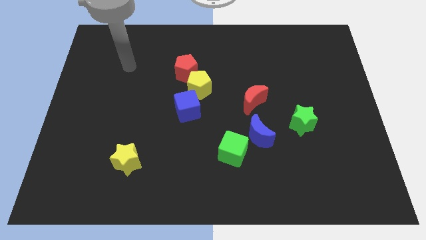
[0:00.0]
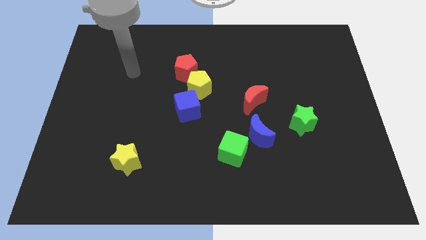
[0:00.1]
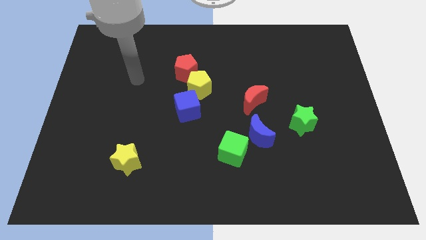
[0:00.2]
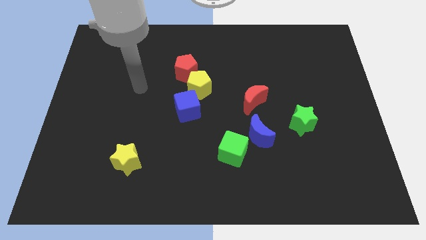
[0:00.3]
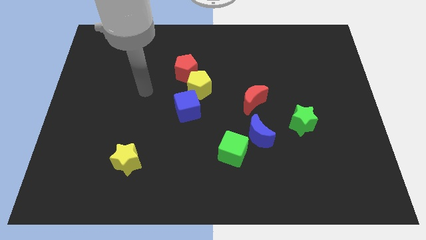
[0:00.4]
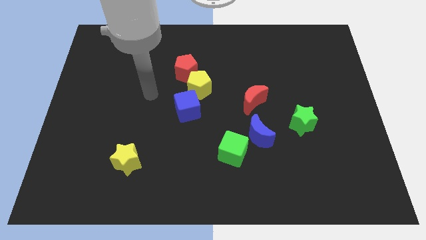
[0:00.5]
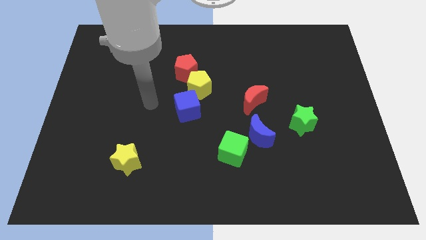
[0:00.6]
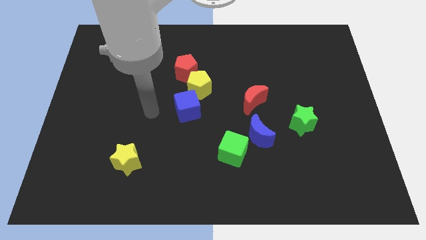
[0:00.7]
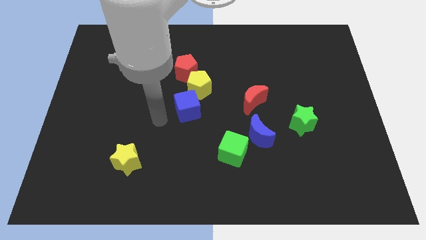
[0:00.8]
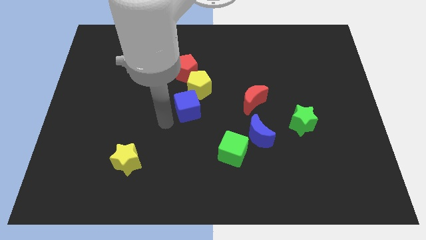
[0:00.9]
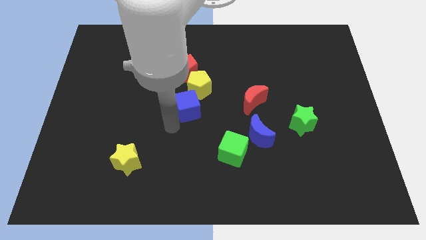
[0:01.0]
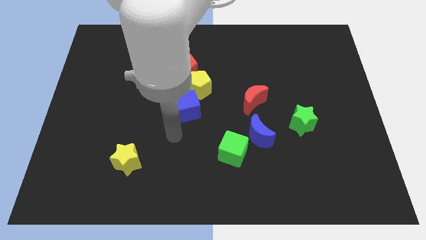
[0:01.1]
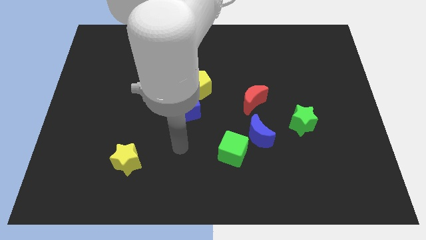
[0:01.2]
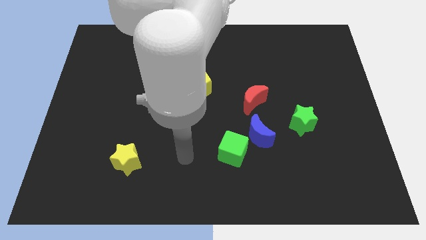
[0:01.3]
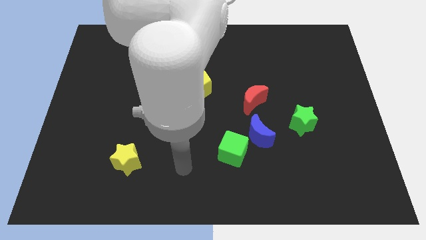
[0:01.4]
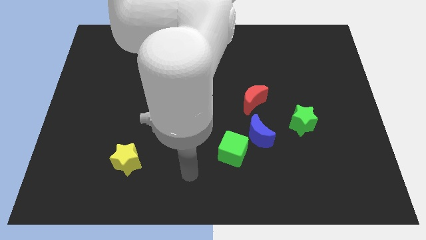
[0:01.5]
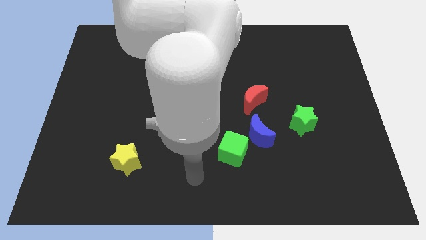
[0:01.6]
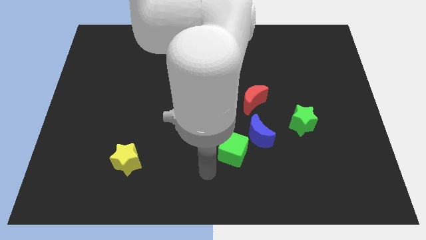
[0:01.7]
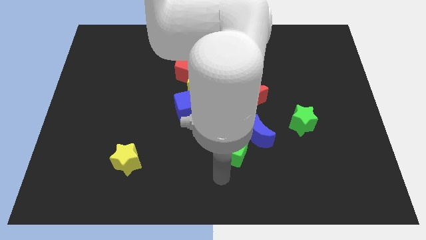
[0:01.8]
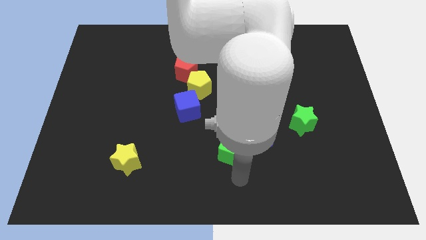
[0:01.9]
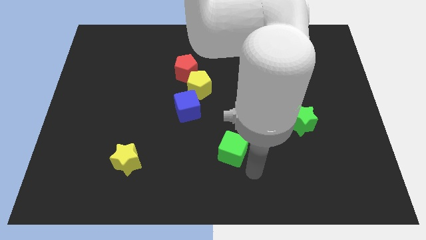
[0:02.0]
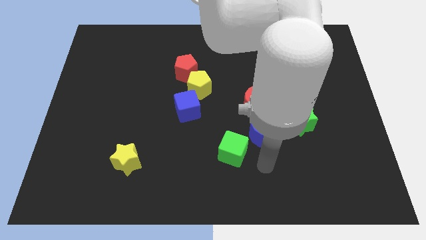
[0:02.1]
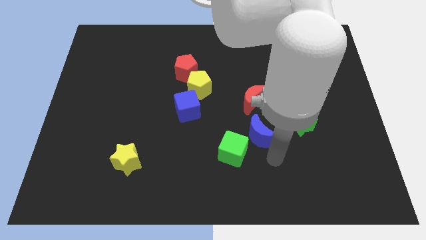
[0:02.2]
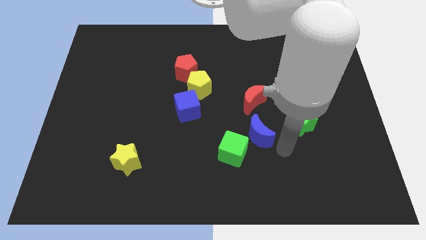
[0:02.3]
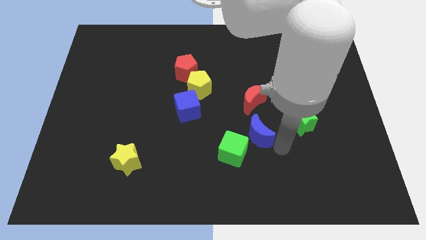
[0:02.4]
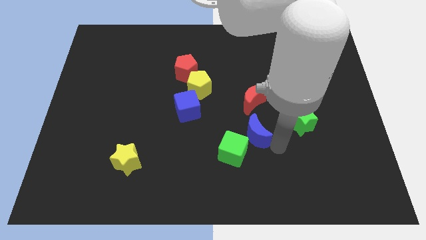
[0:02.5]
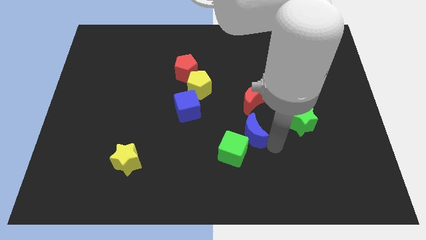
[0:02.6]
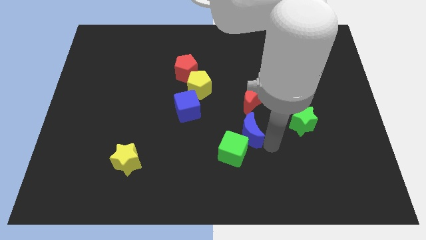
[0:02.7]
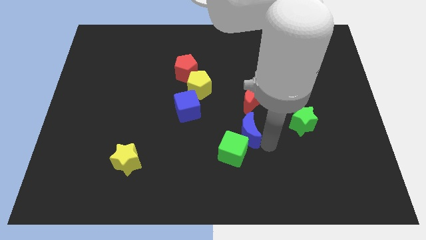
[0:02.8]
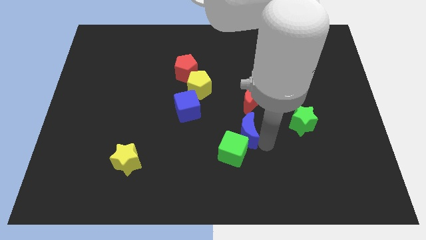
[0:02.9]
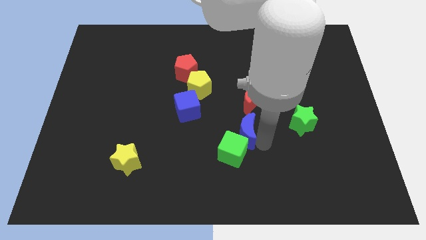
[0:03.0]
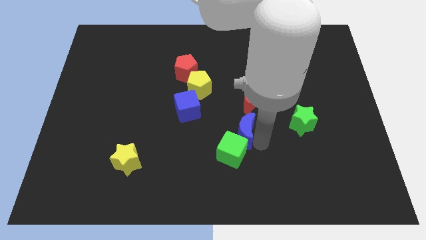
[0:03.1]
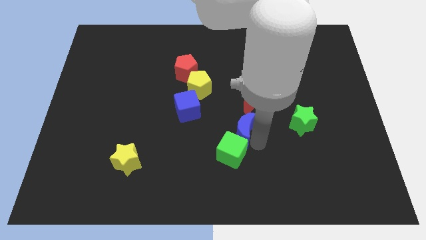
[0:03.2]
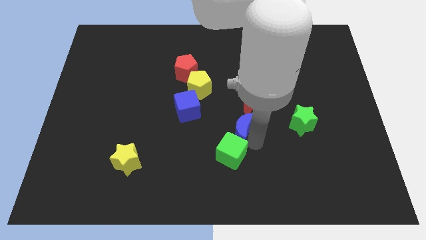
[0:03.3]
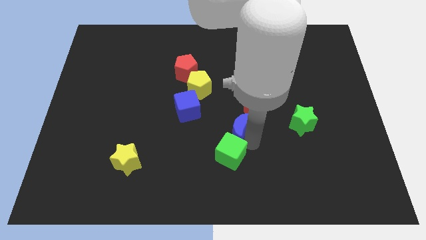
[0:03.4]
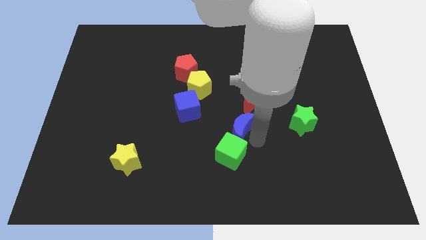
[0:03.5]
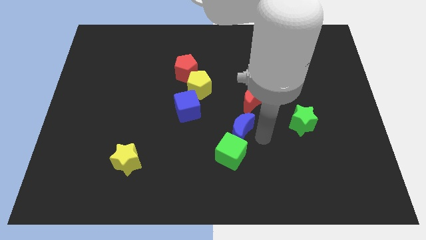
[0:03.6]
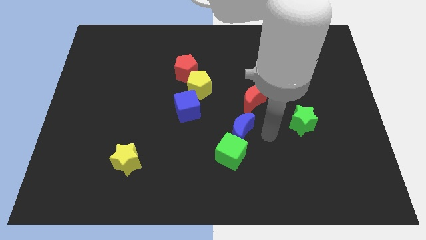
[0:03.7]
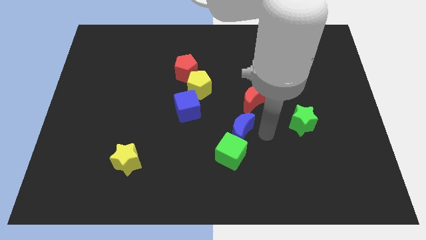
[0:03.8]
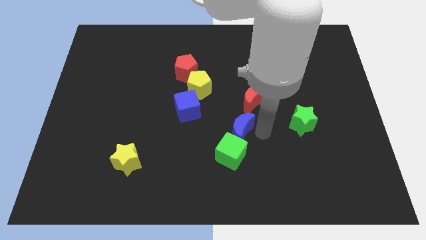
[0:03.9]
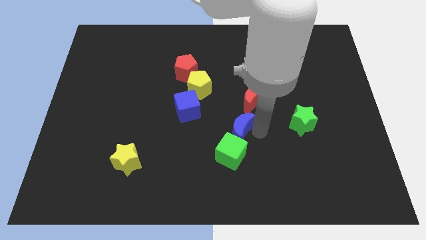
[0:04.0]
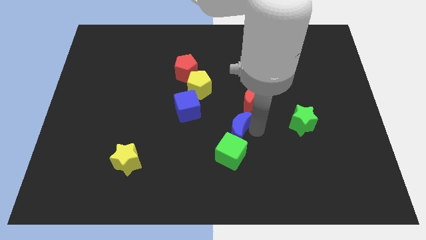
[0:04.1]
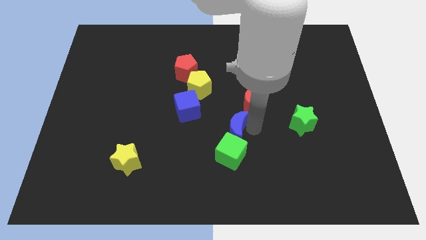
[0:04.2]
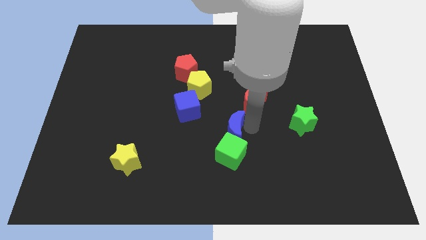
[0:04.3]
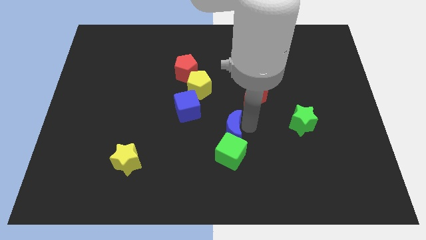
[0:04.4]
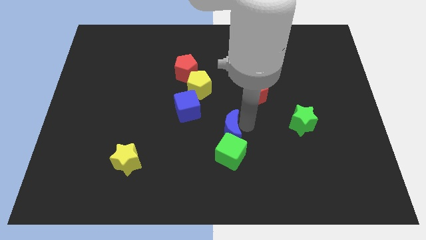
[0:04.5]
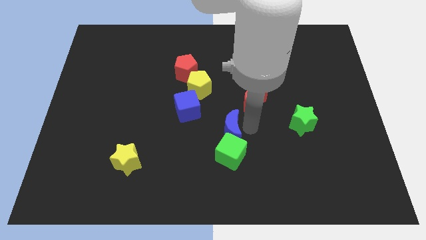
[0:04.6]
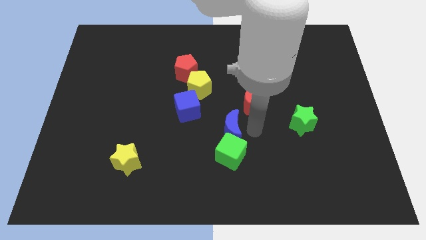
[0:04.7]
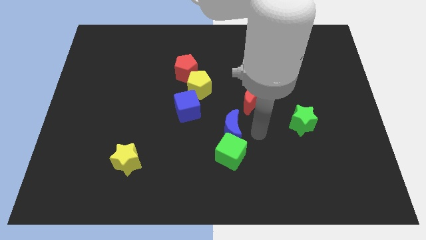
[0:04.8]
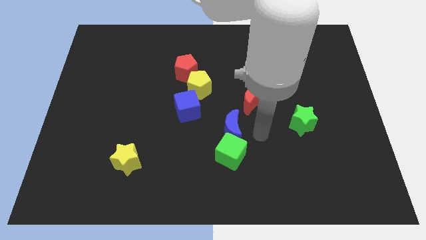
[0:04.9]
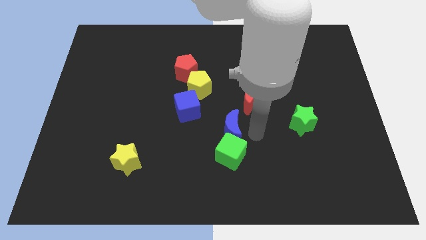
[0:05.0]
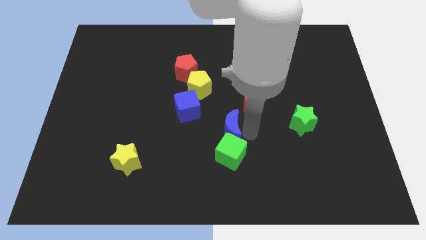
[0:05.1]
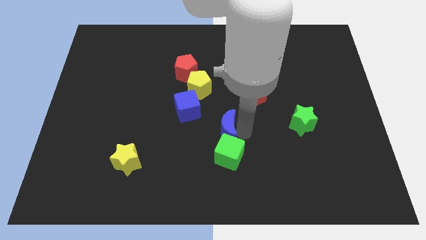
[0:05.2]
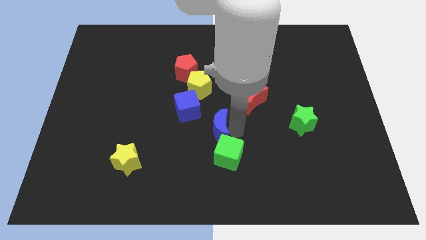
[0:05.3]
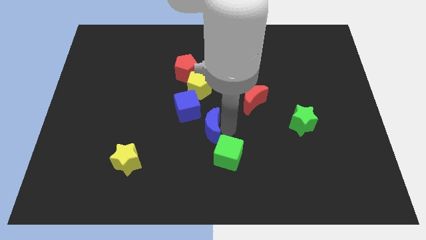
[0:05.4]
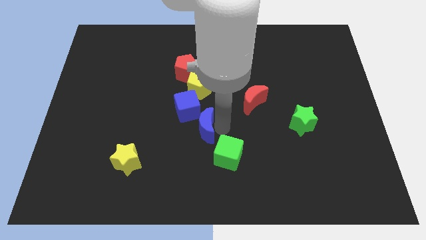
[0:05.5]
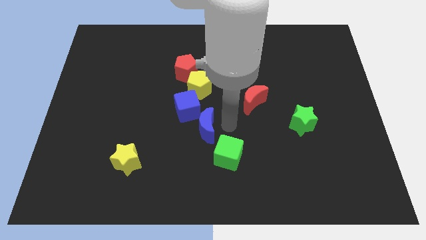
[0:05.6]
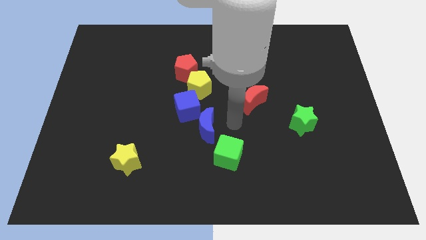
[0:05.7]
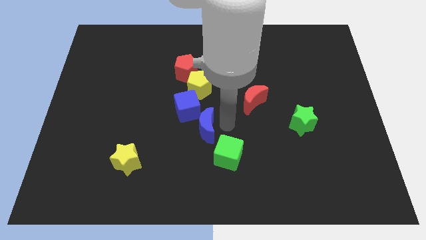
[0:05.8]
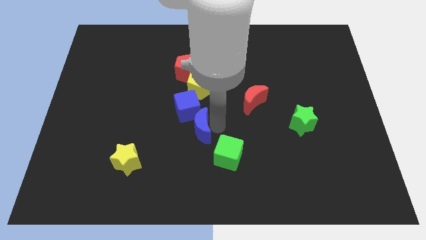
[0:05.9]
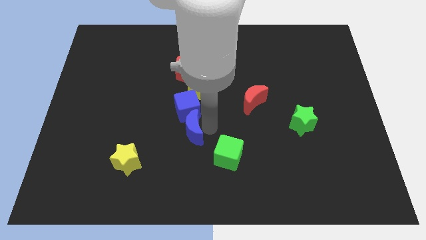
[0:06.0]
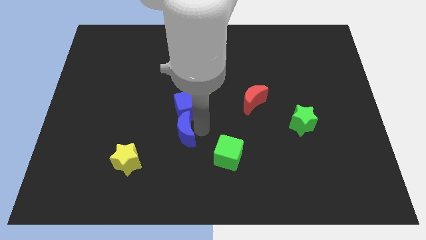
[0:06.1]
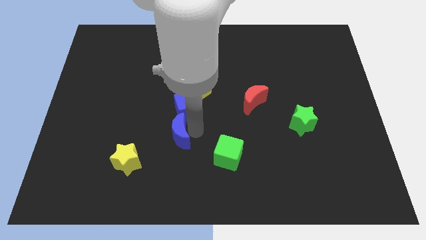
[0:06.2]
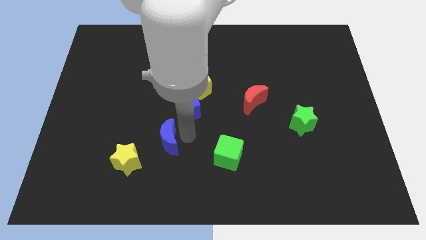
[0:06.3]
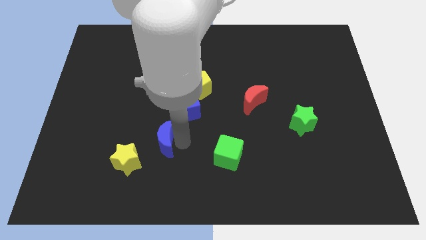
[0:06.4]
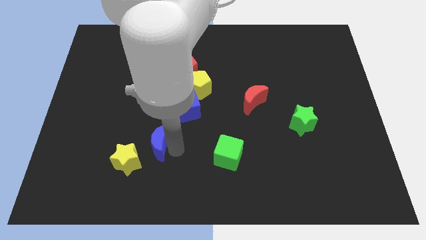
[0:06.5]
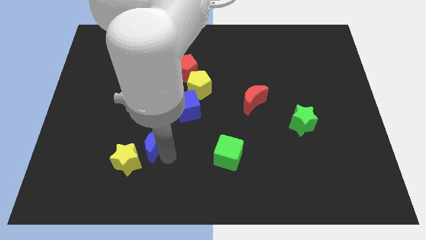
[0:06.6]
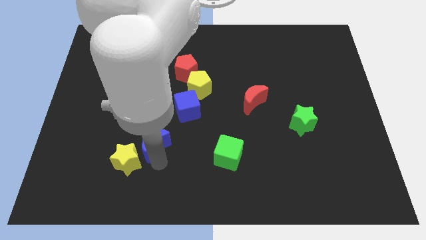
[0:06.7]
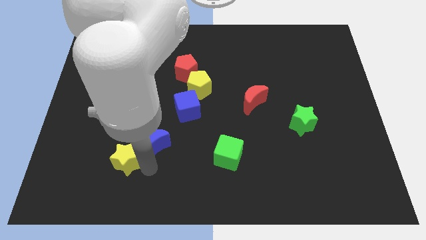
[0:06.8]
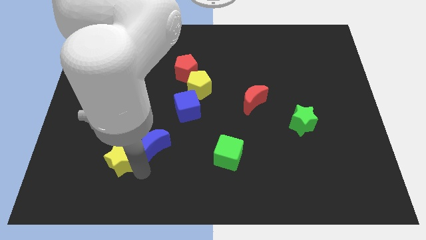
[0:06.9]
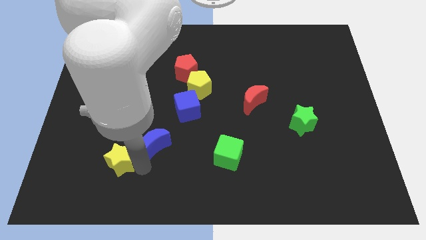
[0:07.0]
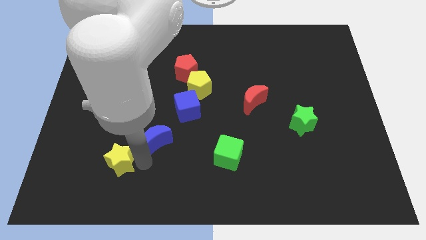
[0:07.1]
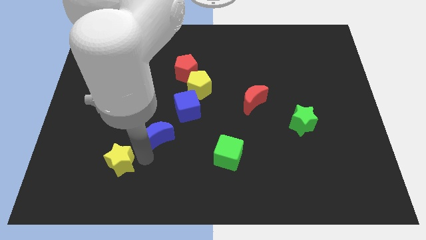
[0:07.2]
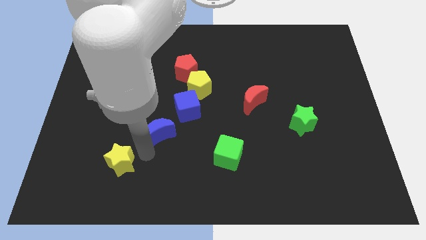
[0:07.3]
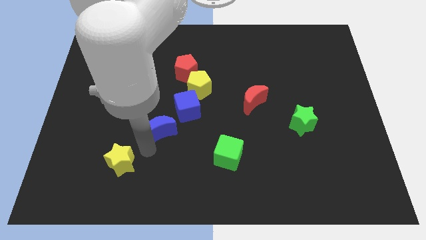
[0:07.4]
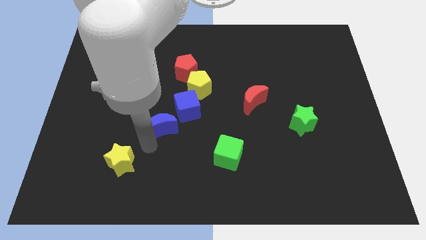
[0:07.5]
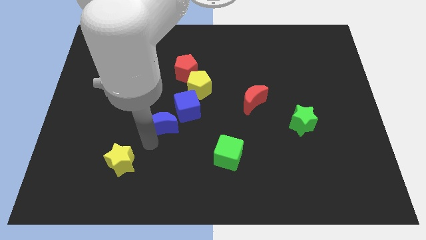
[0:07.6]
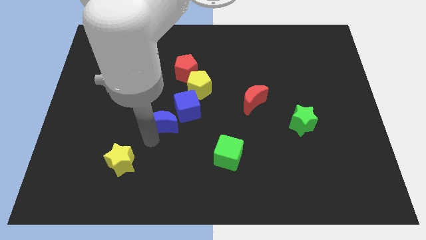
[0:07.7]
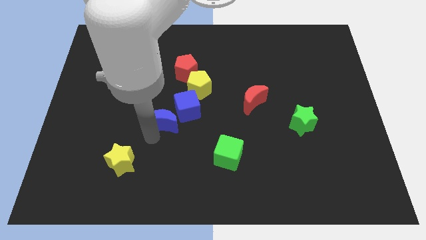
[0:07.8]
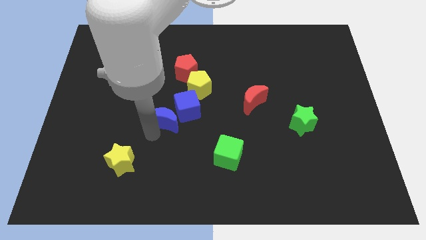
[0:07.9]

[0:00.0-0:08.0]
move the blue moon to the bottom left of the yellow pentagon

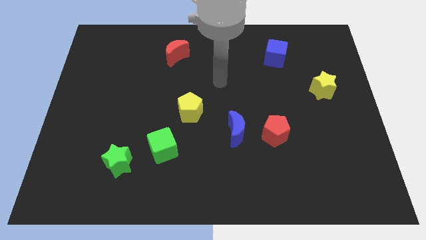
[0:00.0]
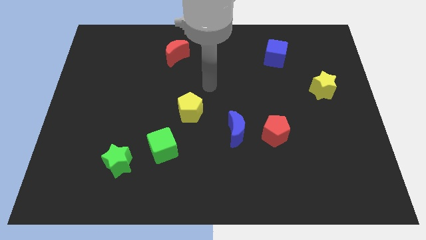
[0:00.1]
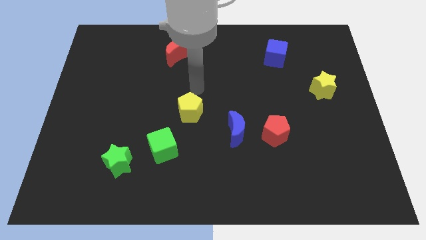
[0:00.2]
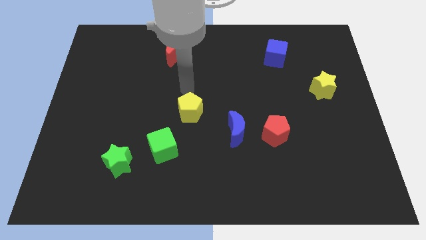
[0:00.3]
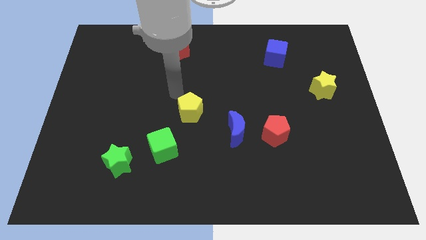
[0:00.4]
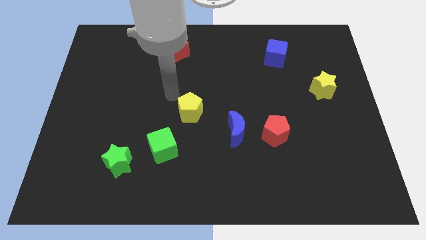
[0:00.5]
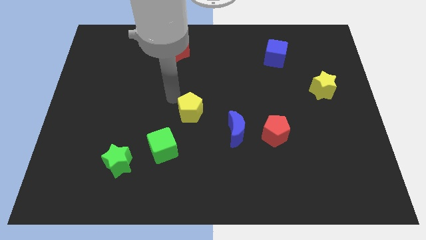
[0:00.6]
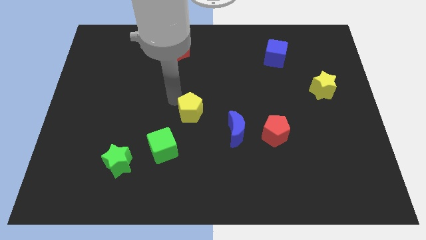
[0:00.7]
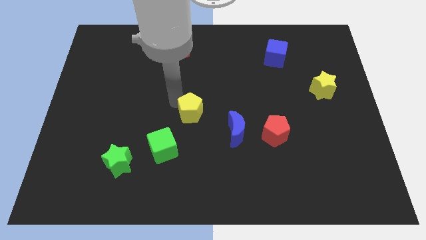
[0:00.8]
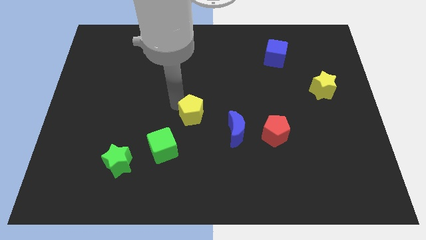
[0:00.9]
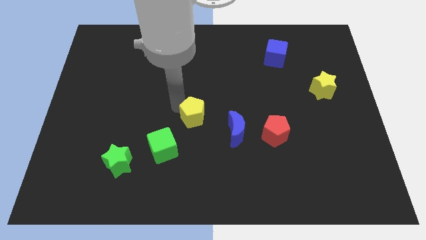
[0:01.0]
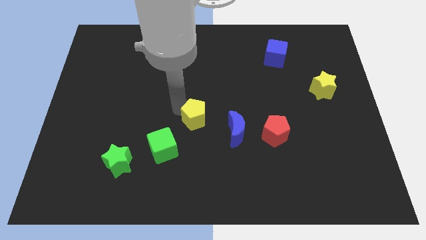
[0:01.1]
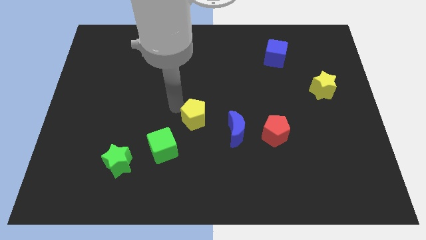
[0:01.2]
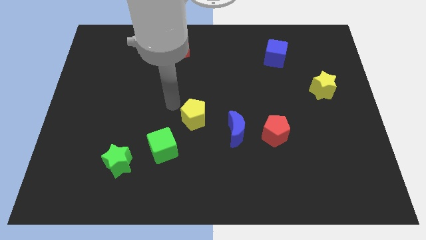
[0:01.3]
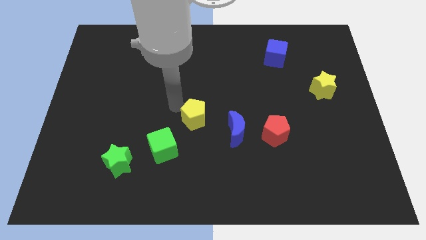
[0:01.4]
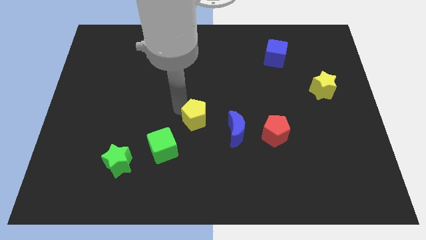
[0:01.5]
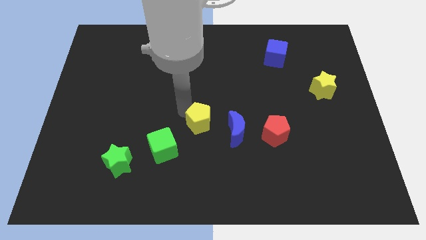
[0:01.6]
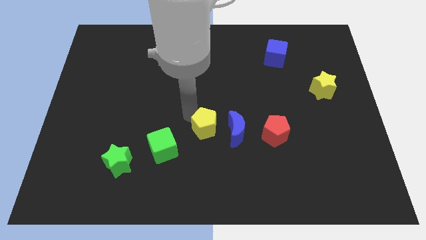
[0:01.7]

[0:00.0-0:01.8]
push the yellow pentagon just left of the red pentagon
